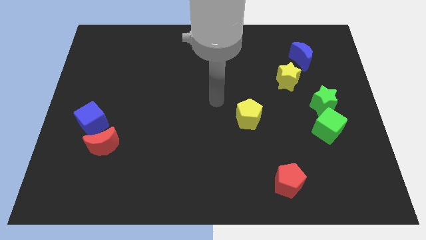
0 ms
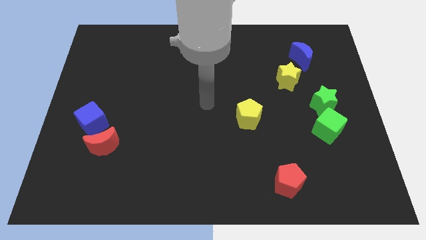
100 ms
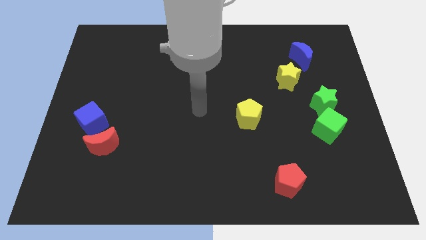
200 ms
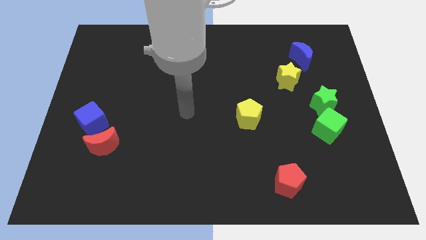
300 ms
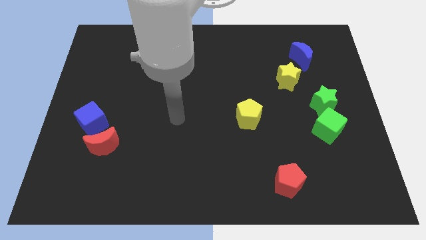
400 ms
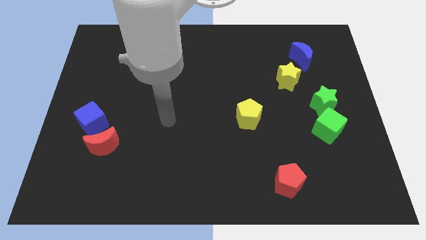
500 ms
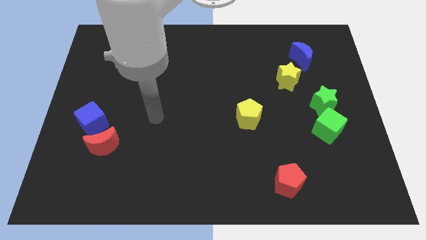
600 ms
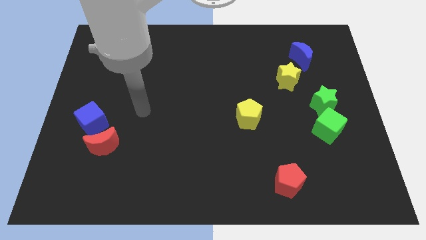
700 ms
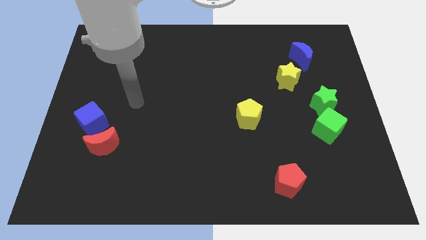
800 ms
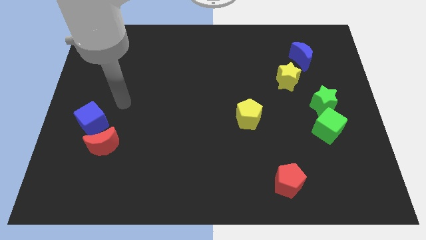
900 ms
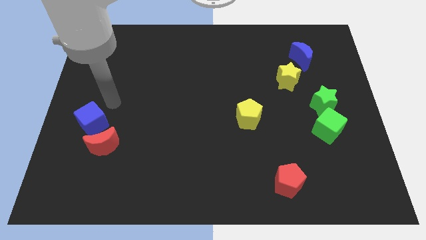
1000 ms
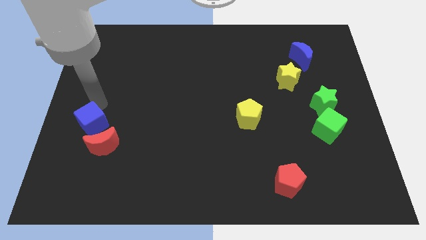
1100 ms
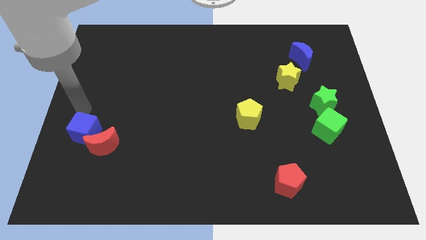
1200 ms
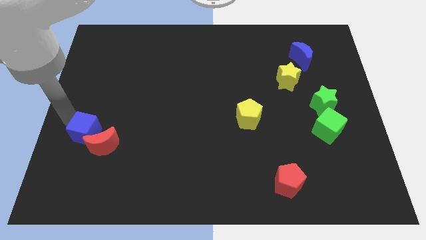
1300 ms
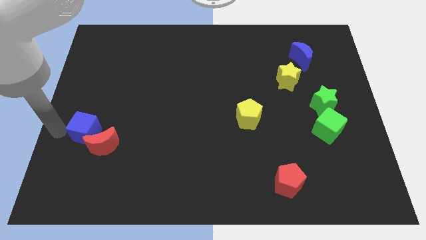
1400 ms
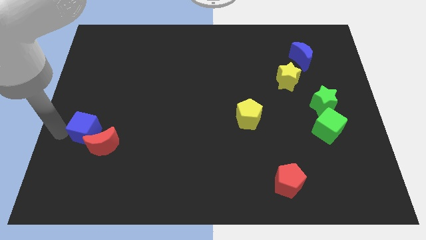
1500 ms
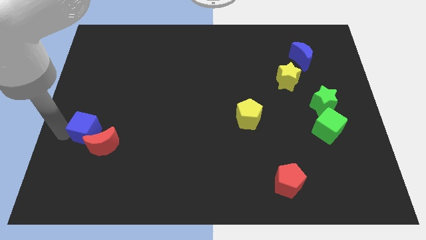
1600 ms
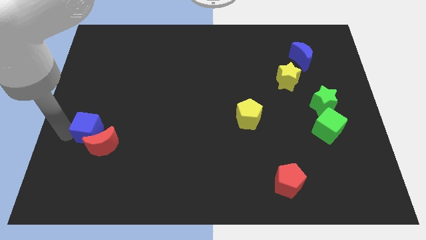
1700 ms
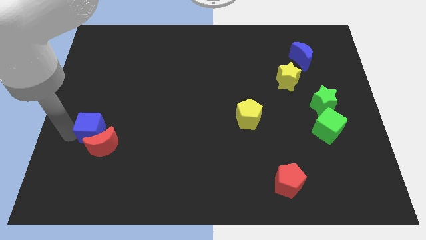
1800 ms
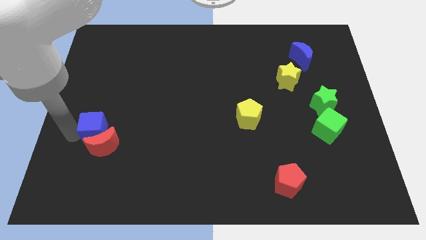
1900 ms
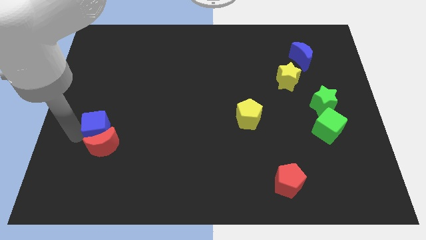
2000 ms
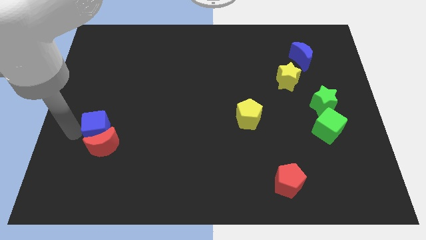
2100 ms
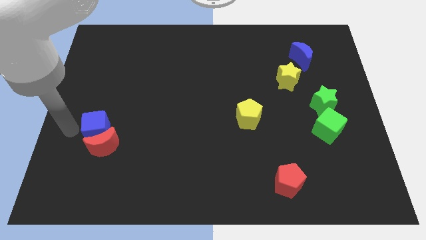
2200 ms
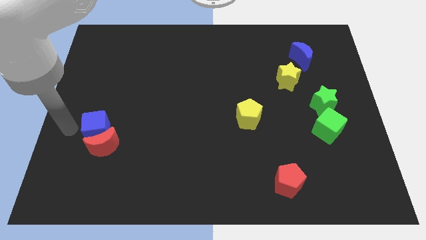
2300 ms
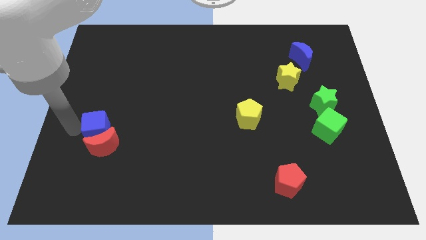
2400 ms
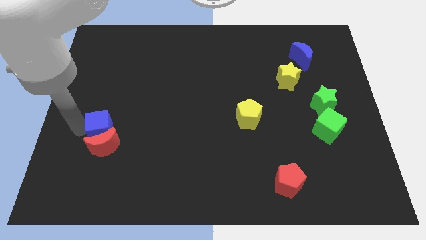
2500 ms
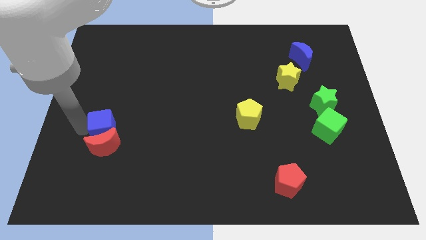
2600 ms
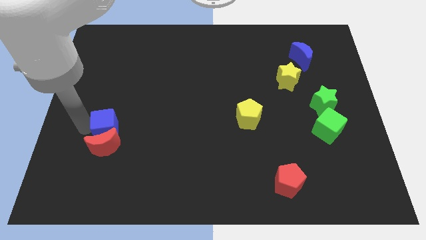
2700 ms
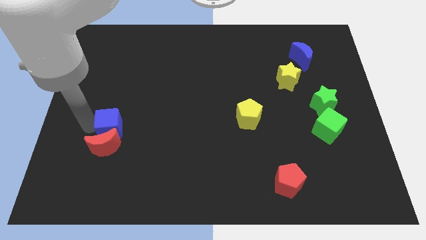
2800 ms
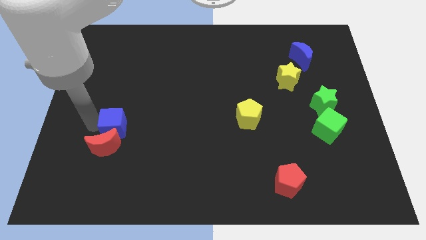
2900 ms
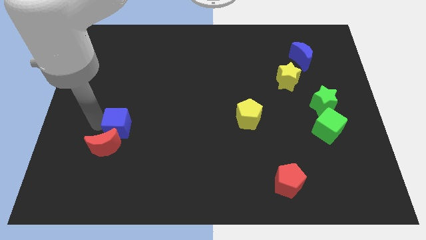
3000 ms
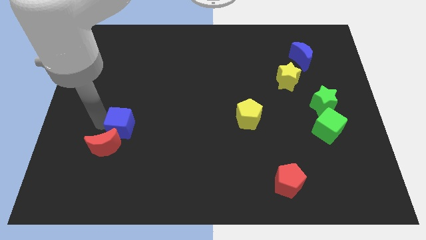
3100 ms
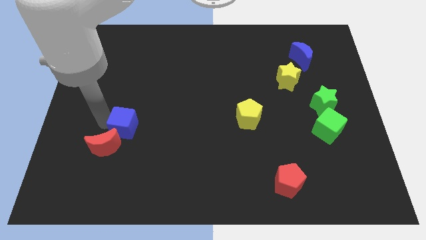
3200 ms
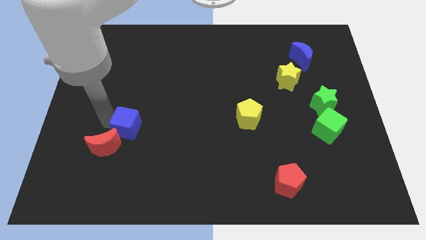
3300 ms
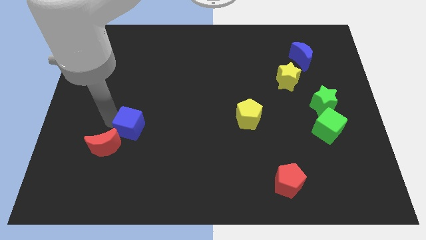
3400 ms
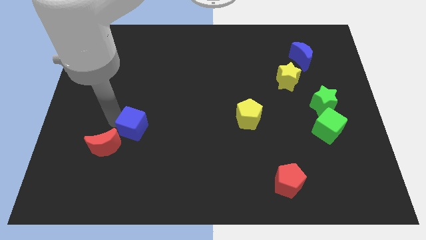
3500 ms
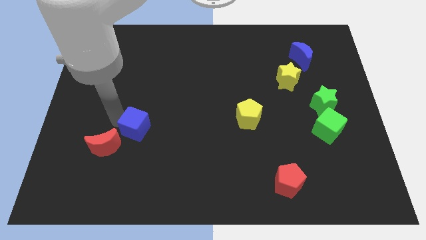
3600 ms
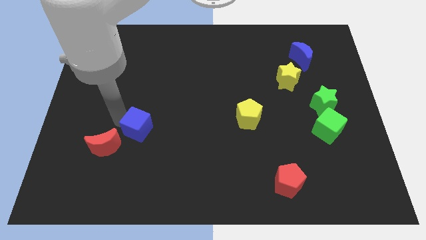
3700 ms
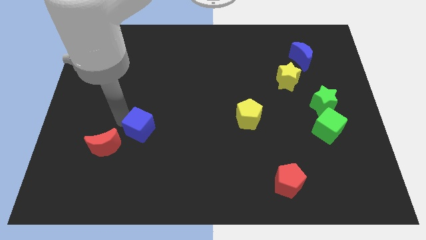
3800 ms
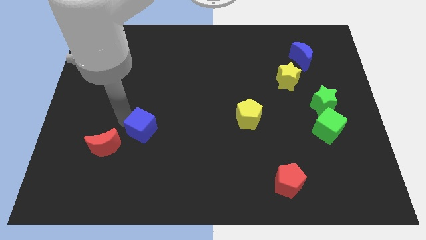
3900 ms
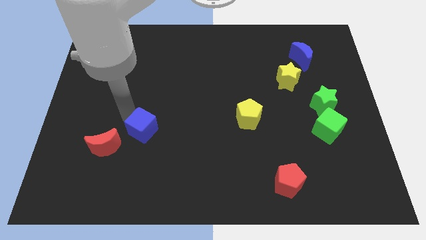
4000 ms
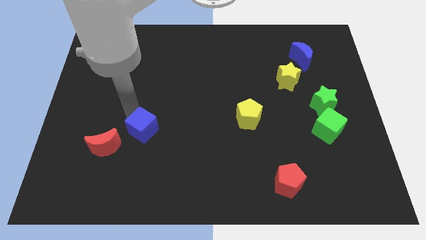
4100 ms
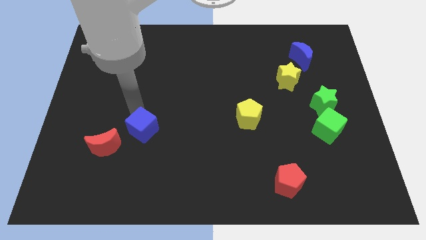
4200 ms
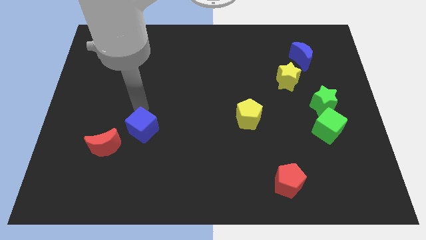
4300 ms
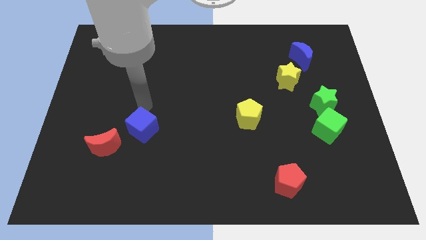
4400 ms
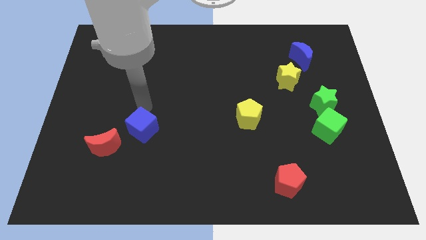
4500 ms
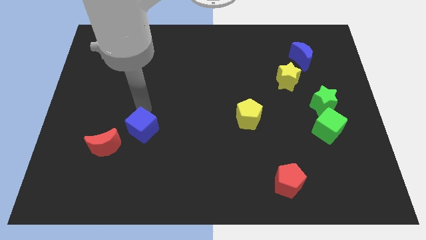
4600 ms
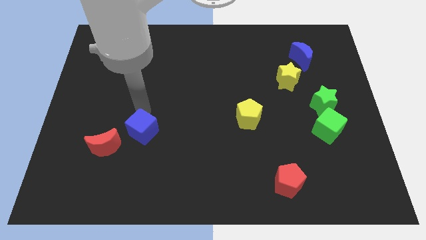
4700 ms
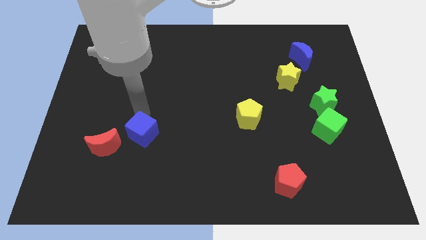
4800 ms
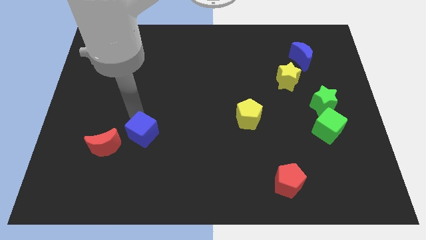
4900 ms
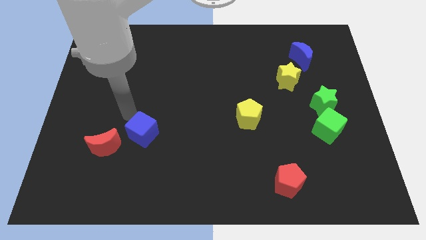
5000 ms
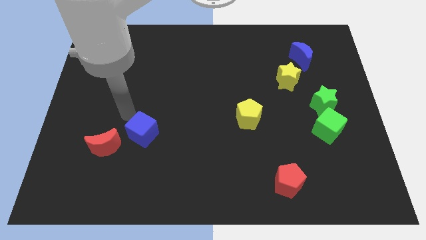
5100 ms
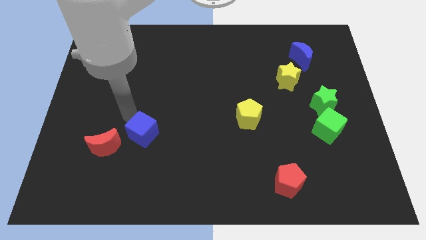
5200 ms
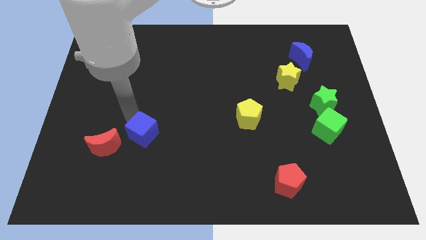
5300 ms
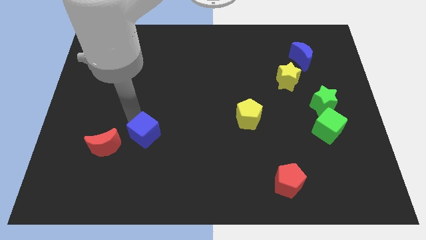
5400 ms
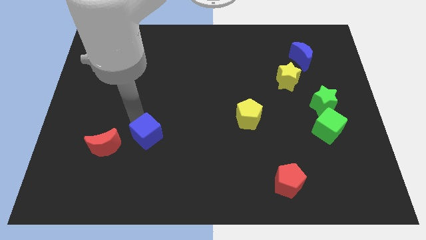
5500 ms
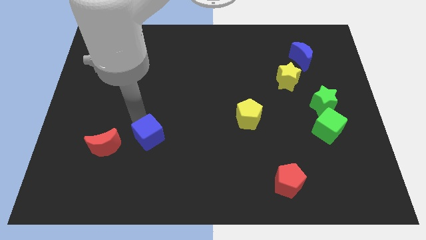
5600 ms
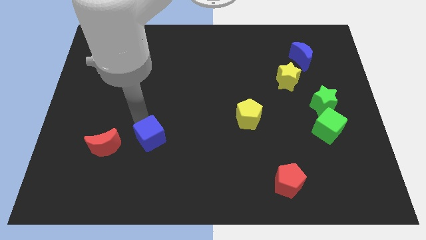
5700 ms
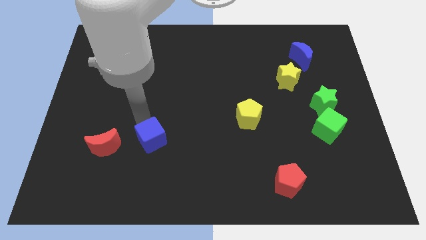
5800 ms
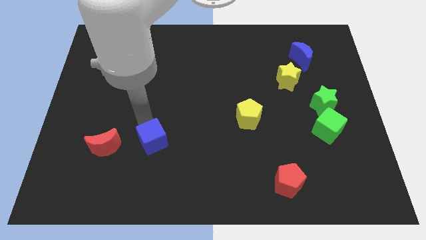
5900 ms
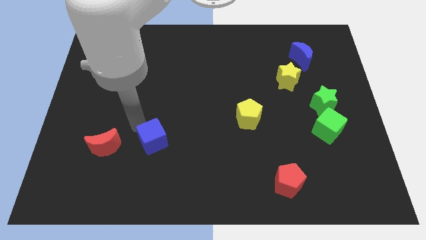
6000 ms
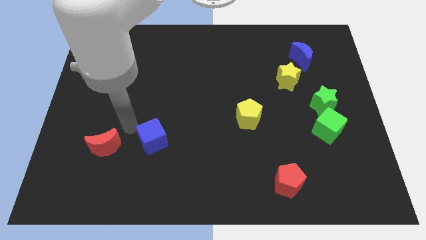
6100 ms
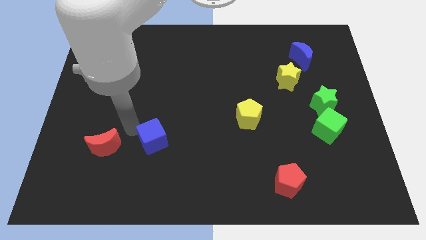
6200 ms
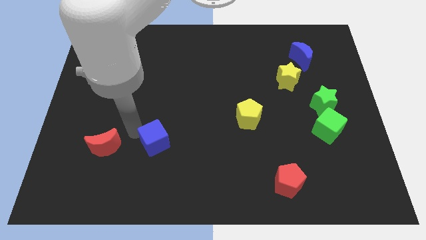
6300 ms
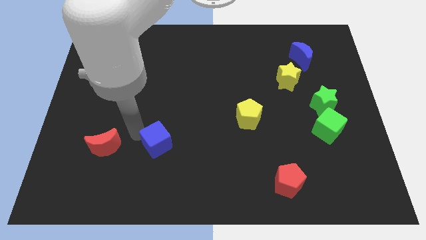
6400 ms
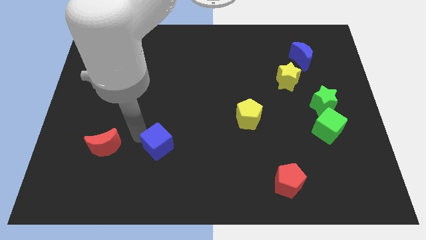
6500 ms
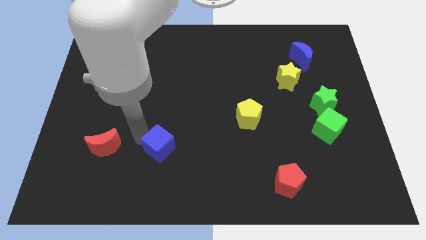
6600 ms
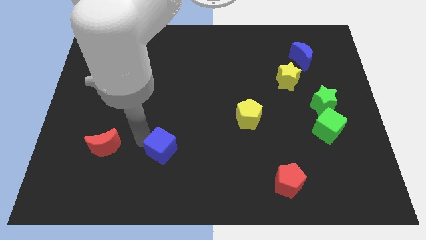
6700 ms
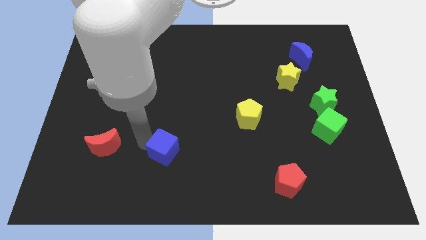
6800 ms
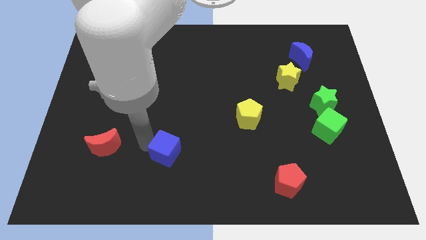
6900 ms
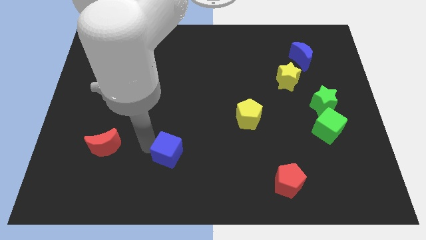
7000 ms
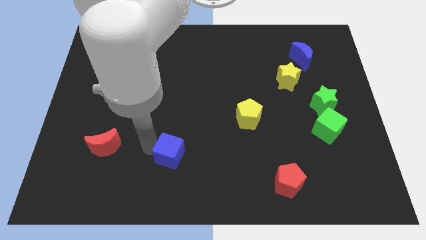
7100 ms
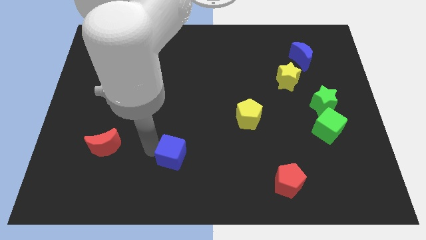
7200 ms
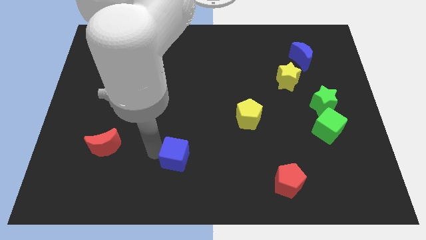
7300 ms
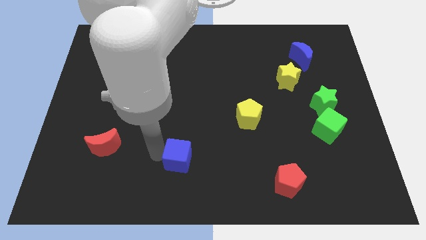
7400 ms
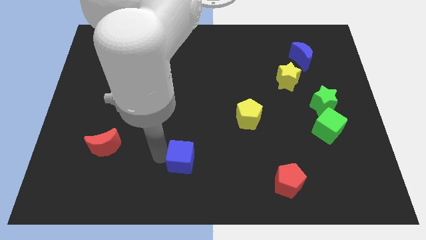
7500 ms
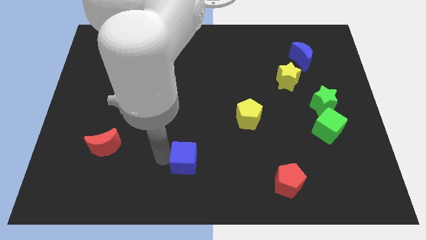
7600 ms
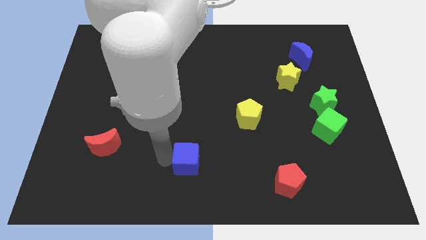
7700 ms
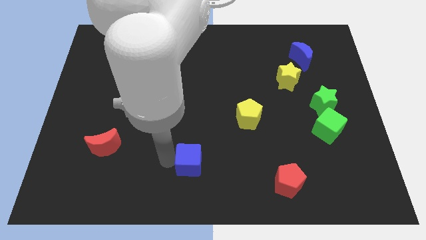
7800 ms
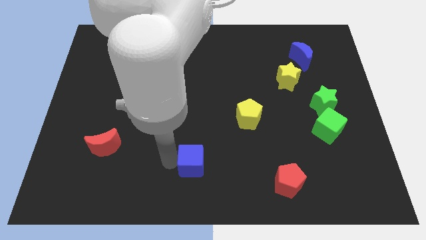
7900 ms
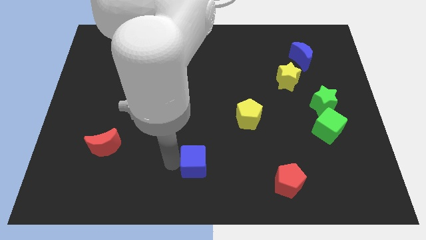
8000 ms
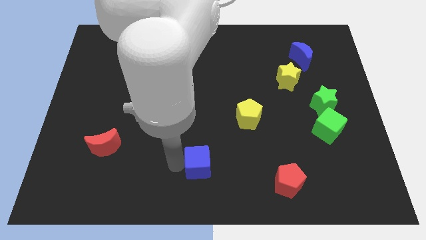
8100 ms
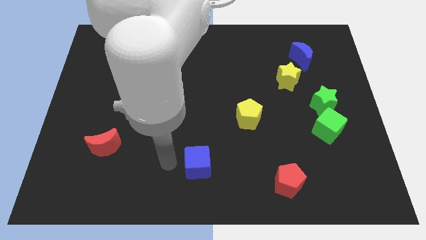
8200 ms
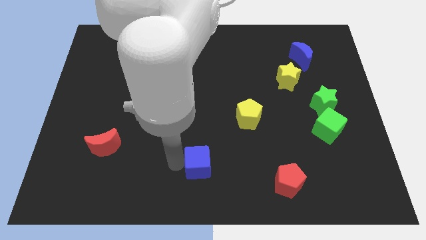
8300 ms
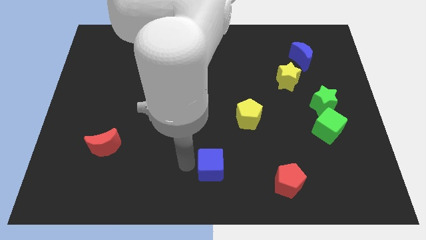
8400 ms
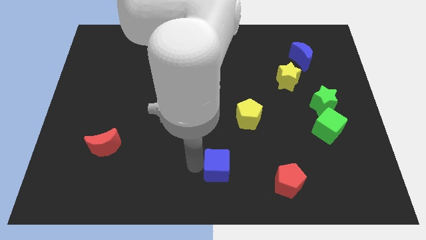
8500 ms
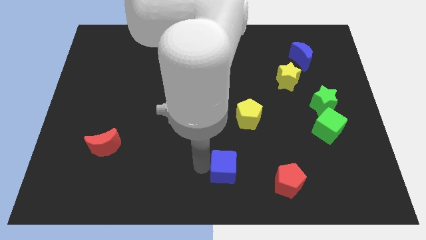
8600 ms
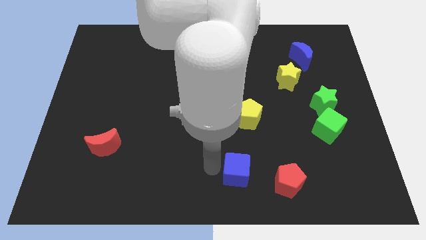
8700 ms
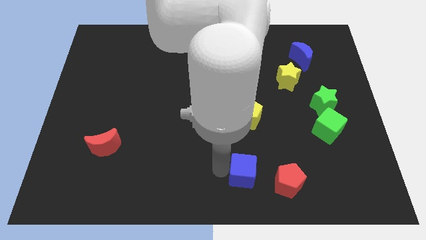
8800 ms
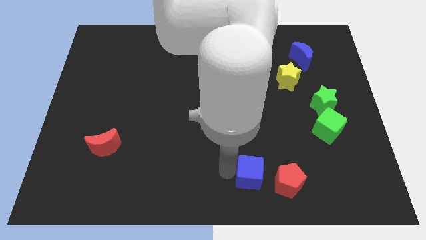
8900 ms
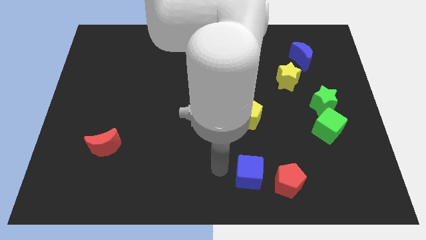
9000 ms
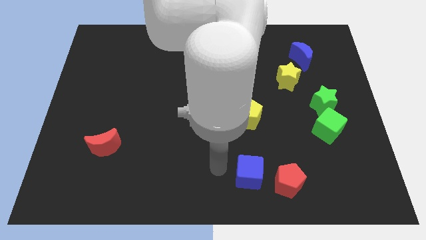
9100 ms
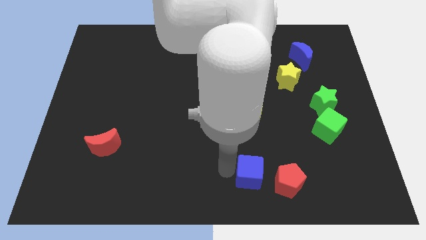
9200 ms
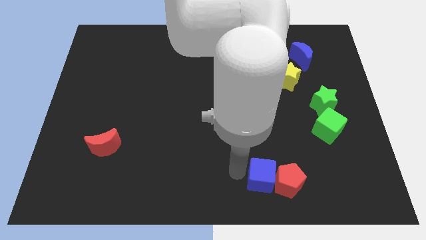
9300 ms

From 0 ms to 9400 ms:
move the blue cube next to the red pentagon
